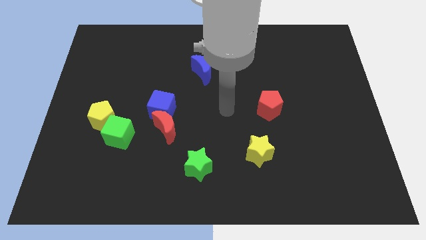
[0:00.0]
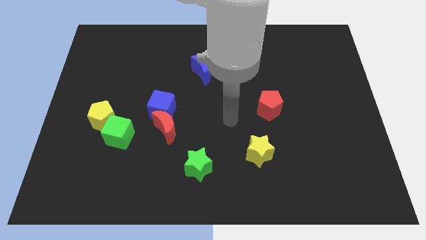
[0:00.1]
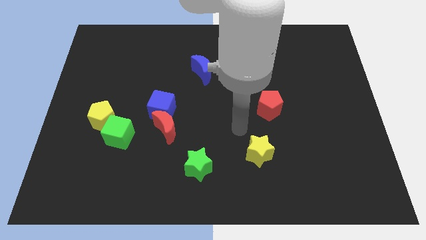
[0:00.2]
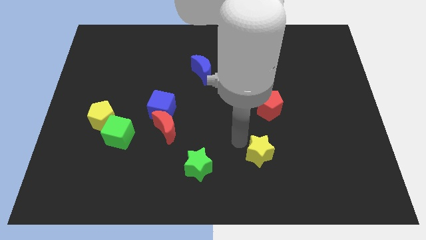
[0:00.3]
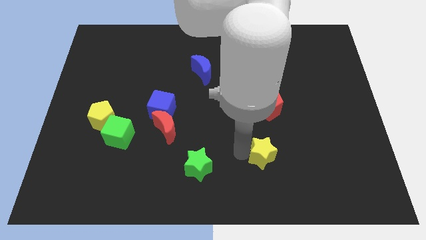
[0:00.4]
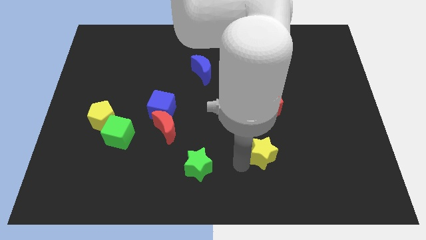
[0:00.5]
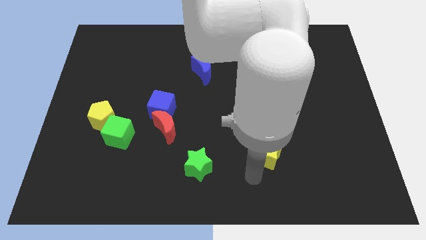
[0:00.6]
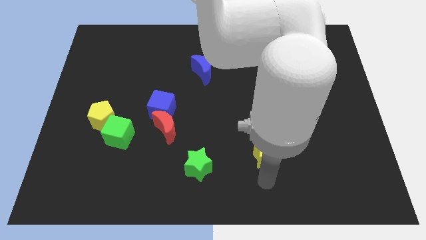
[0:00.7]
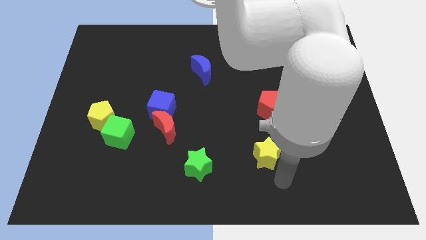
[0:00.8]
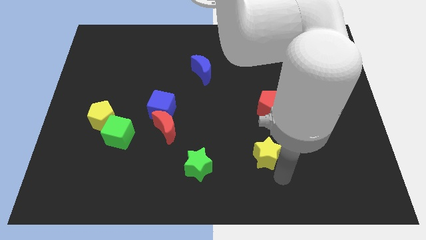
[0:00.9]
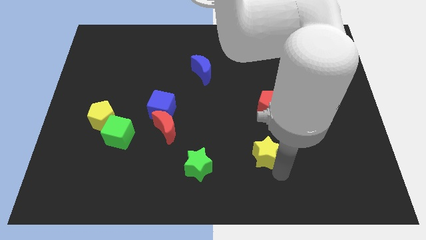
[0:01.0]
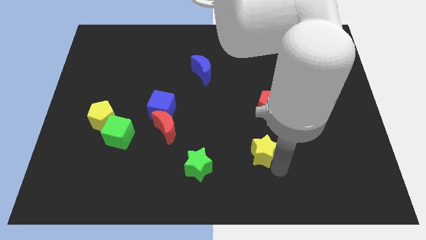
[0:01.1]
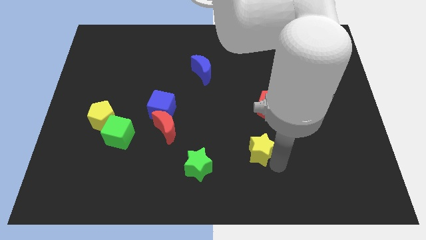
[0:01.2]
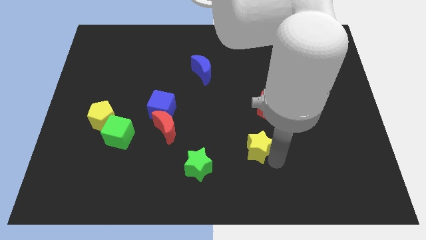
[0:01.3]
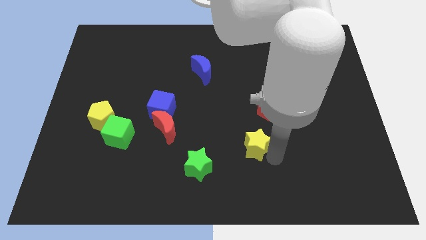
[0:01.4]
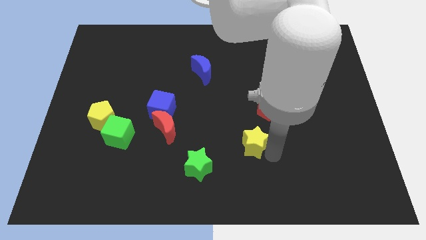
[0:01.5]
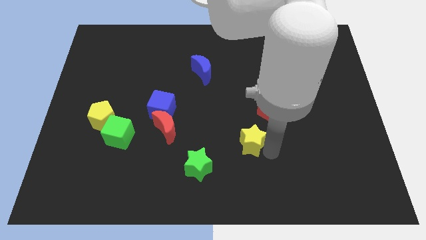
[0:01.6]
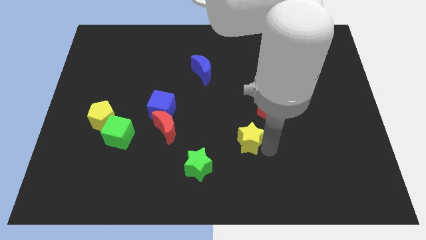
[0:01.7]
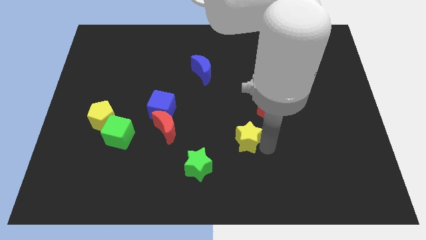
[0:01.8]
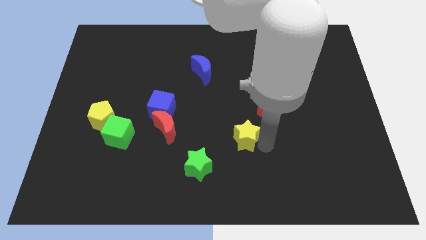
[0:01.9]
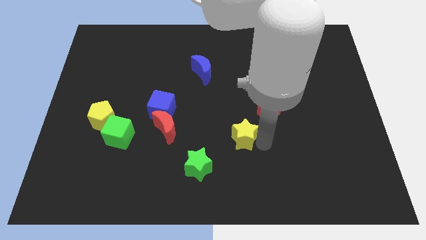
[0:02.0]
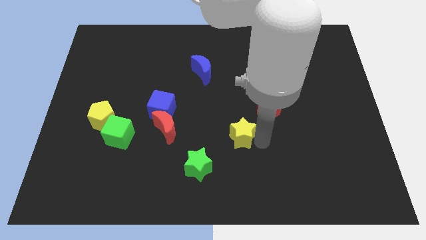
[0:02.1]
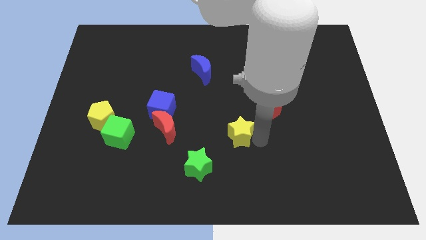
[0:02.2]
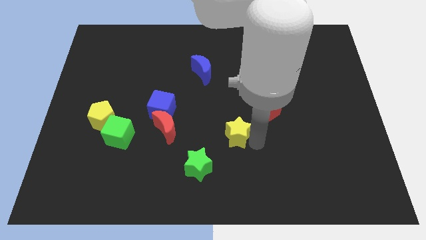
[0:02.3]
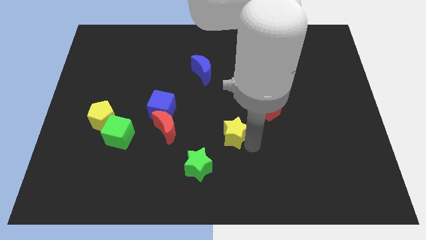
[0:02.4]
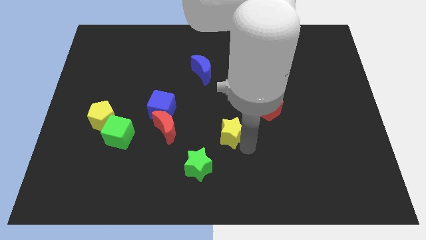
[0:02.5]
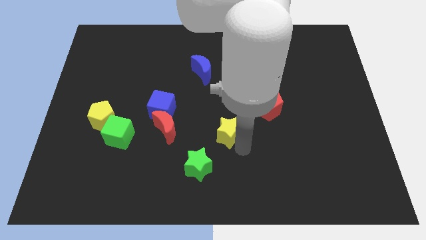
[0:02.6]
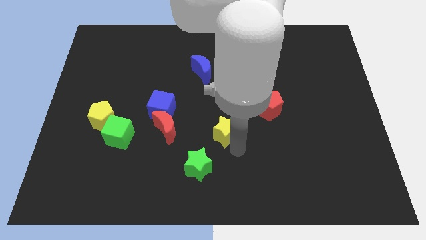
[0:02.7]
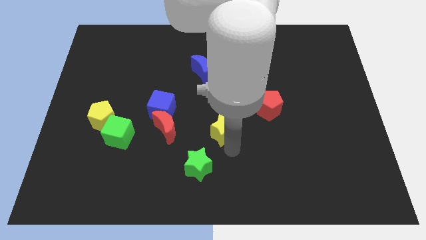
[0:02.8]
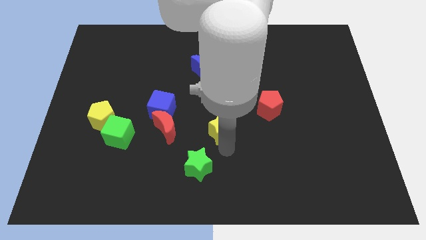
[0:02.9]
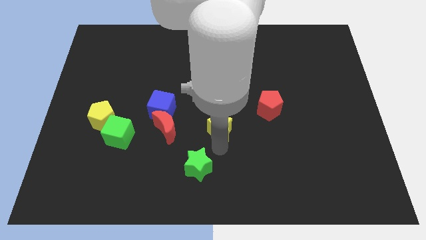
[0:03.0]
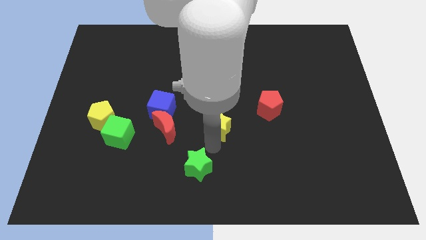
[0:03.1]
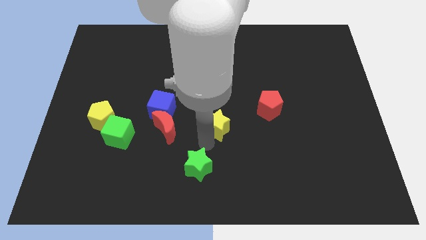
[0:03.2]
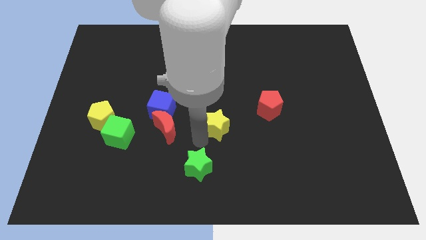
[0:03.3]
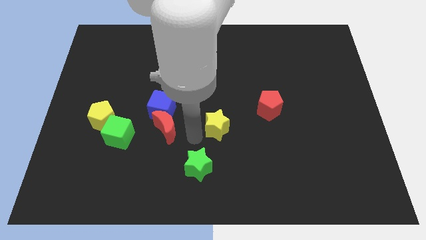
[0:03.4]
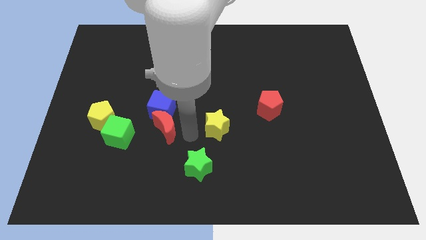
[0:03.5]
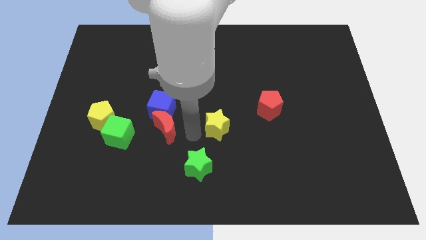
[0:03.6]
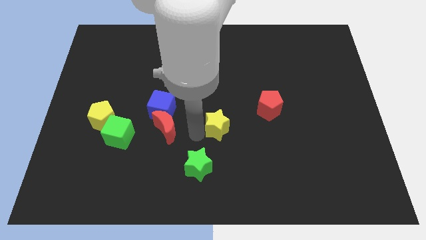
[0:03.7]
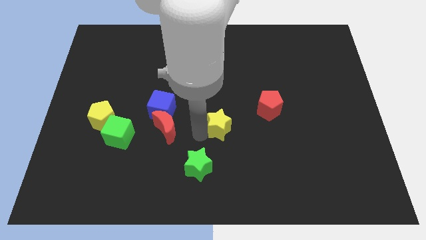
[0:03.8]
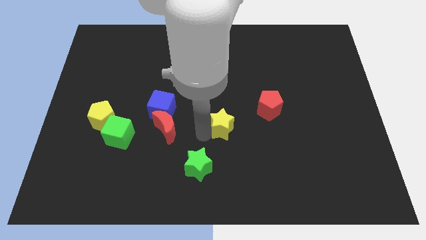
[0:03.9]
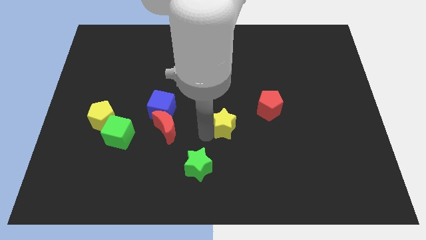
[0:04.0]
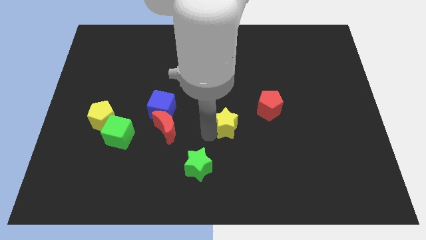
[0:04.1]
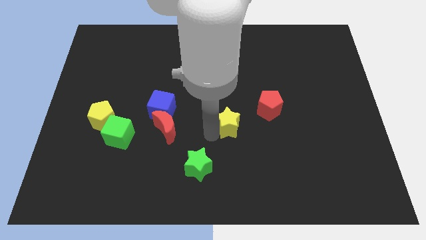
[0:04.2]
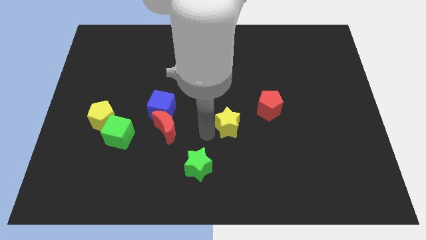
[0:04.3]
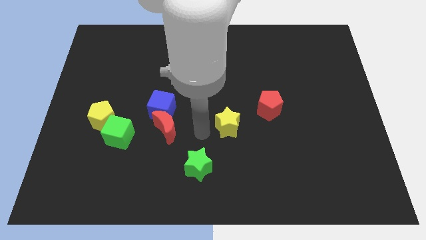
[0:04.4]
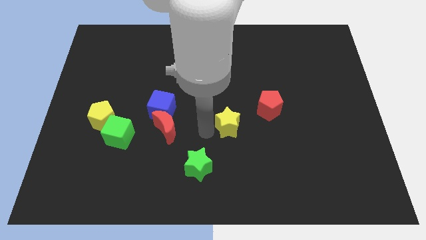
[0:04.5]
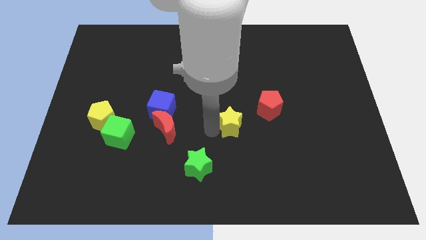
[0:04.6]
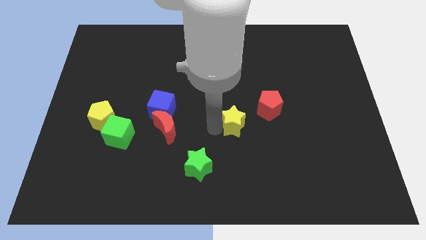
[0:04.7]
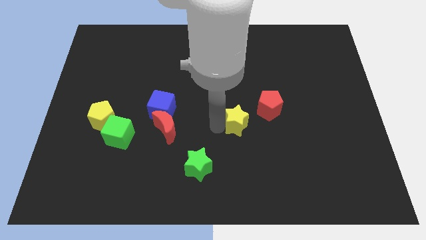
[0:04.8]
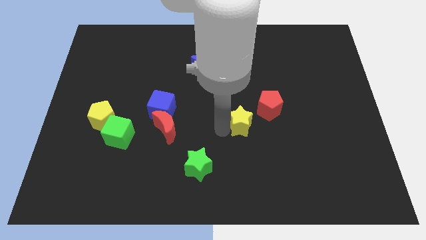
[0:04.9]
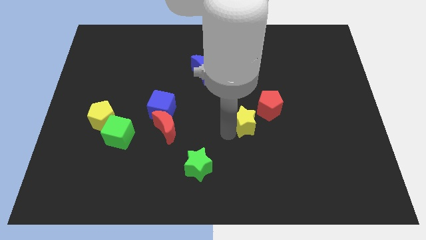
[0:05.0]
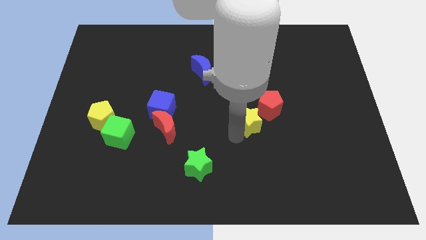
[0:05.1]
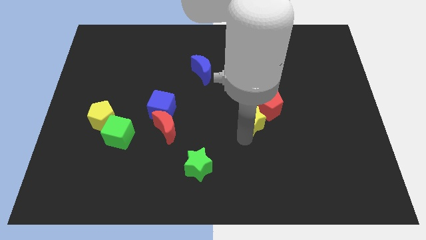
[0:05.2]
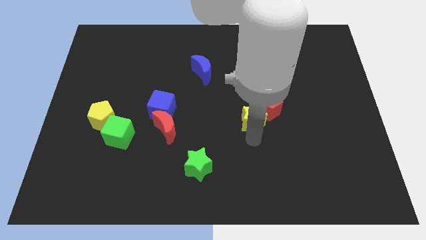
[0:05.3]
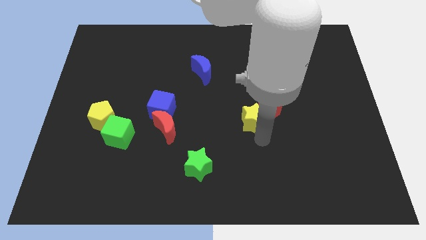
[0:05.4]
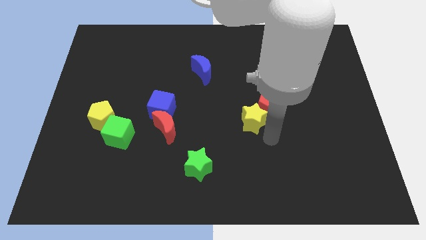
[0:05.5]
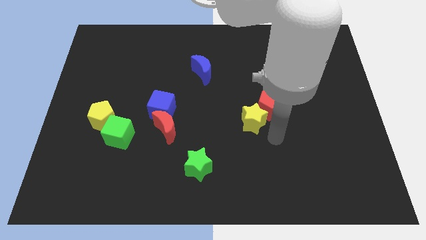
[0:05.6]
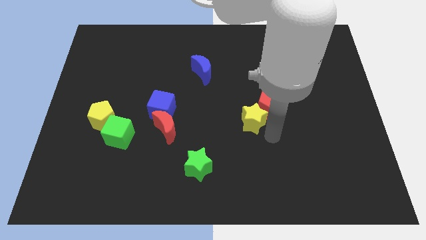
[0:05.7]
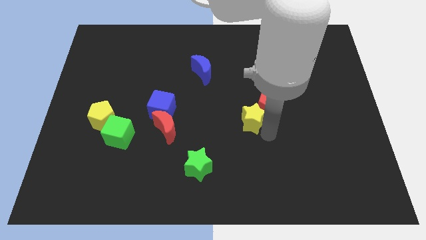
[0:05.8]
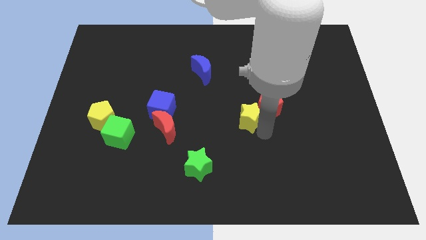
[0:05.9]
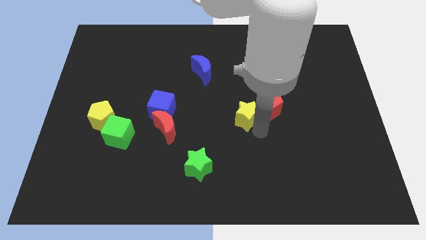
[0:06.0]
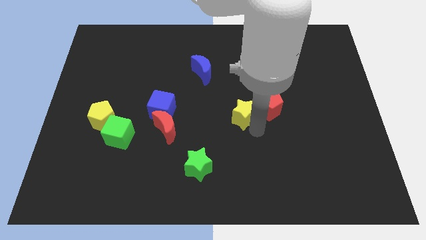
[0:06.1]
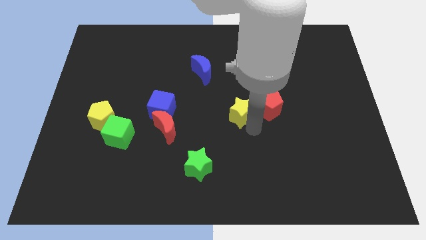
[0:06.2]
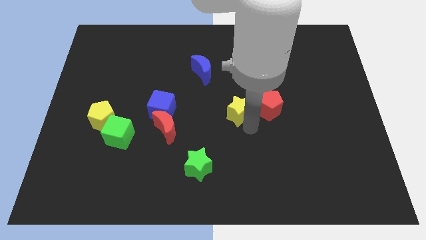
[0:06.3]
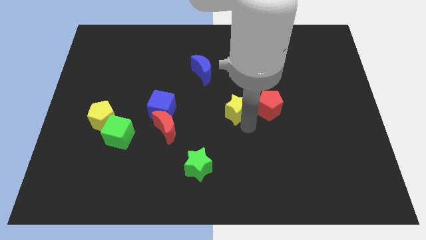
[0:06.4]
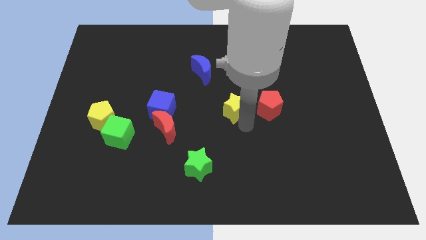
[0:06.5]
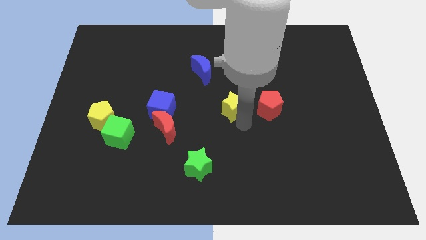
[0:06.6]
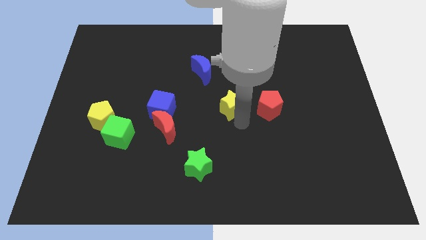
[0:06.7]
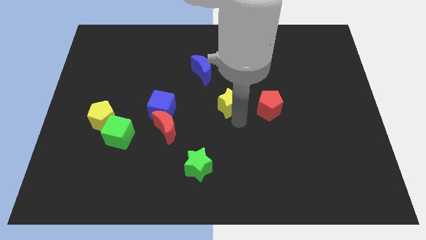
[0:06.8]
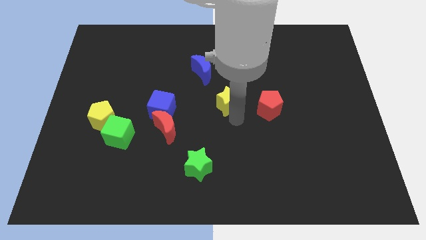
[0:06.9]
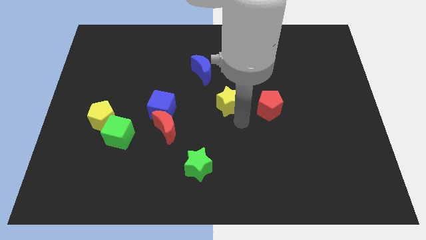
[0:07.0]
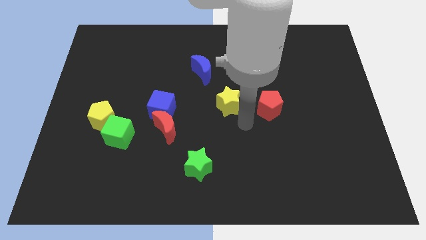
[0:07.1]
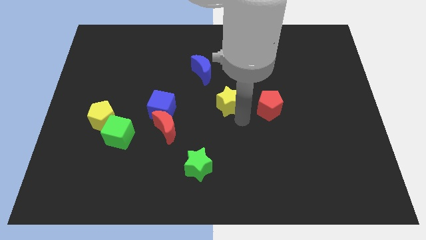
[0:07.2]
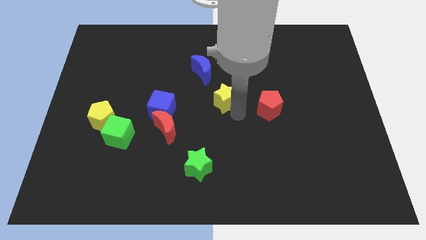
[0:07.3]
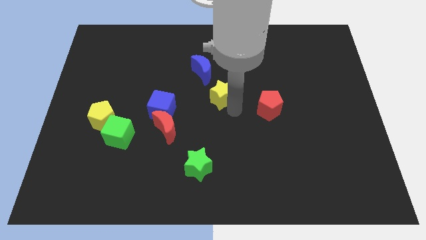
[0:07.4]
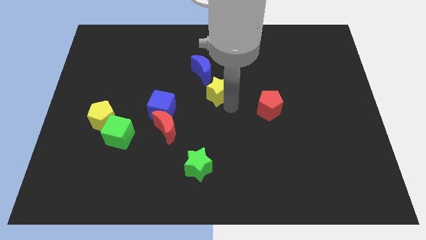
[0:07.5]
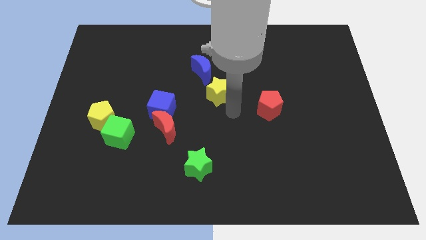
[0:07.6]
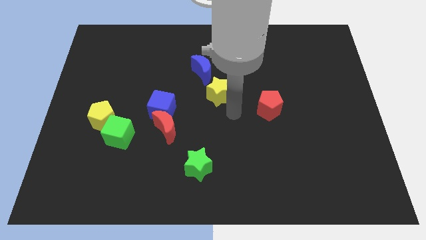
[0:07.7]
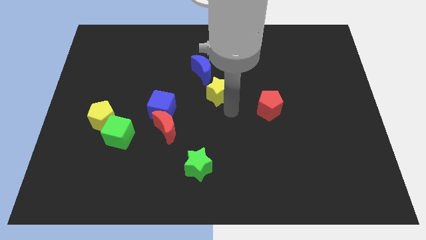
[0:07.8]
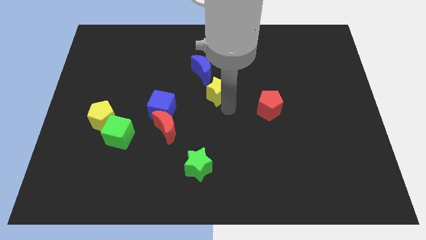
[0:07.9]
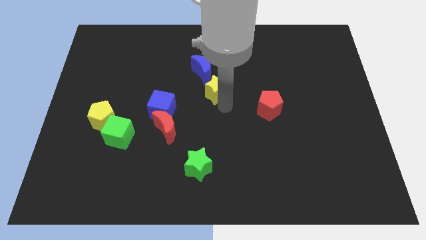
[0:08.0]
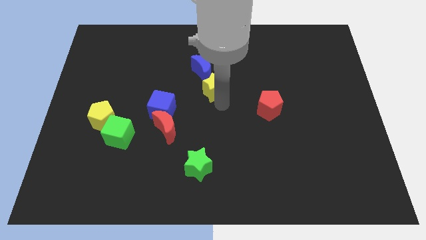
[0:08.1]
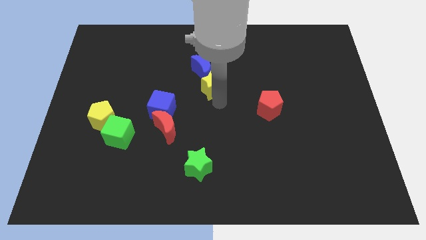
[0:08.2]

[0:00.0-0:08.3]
move the yellow star towards the blue moon
